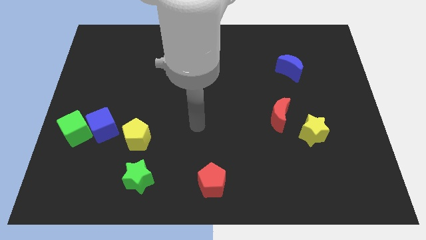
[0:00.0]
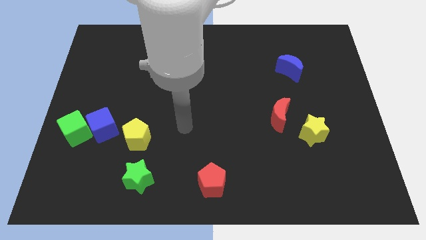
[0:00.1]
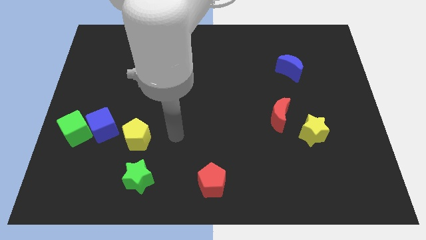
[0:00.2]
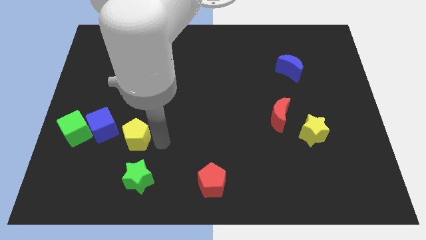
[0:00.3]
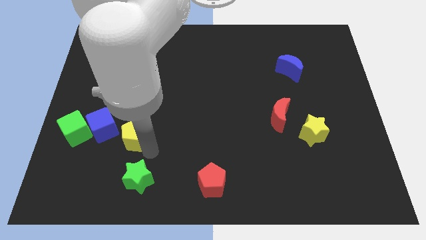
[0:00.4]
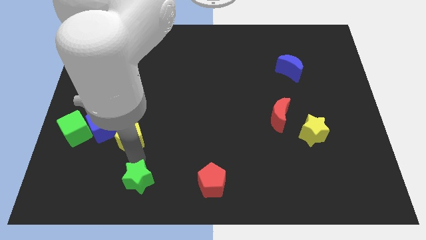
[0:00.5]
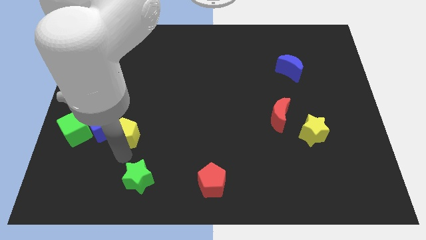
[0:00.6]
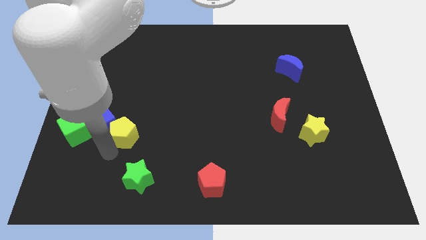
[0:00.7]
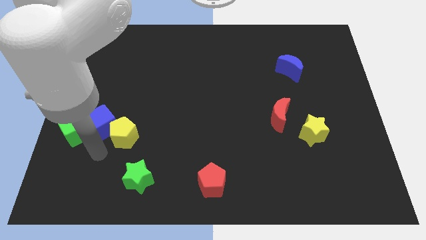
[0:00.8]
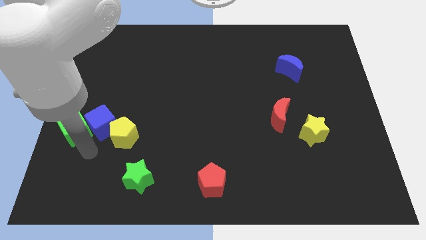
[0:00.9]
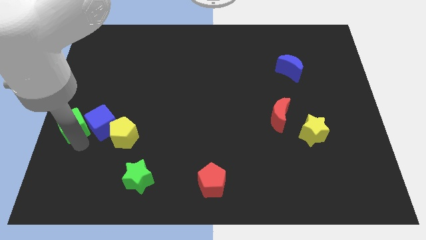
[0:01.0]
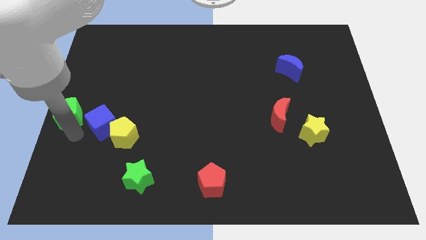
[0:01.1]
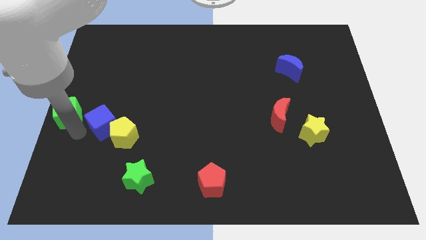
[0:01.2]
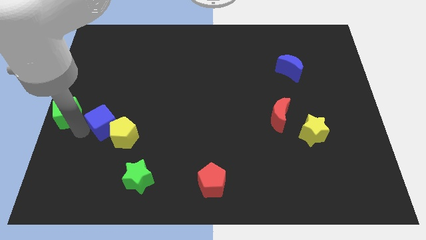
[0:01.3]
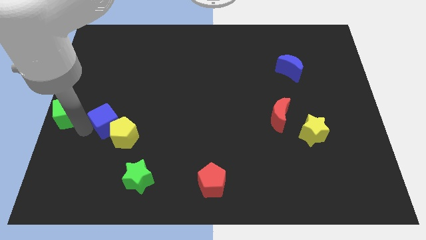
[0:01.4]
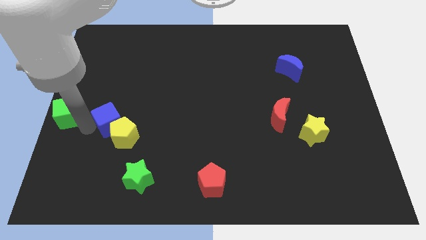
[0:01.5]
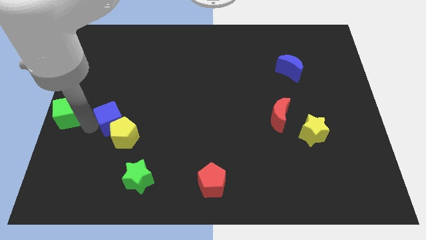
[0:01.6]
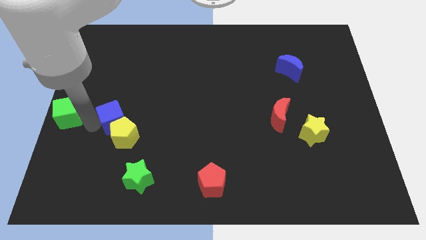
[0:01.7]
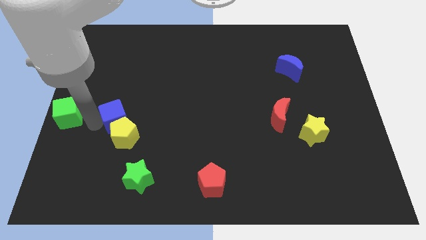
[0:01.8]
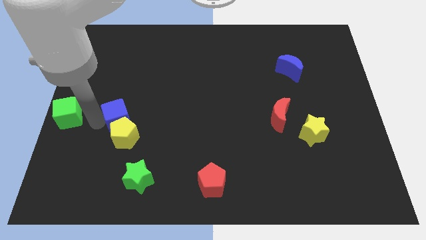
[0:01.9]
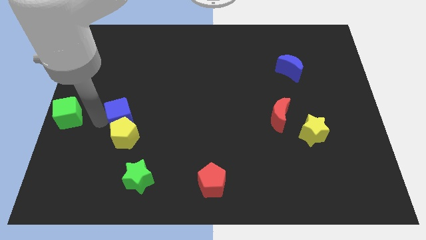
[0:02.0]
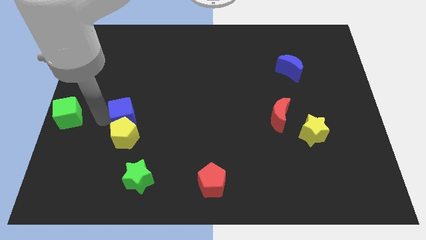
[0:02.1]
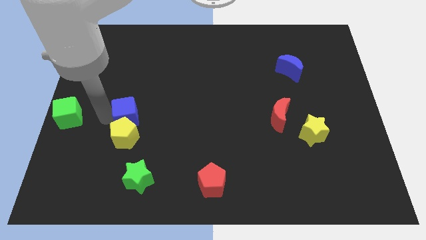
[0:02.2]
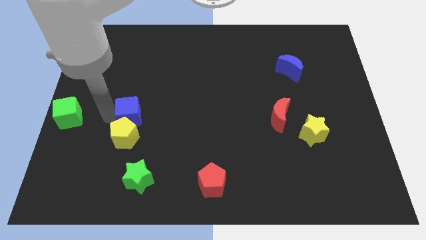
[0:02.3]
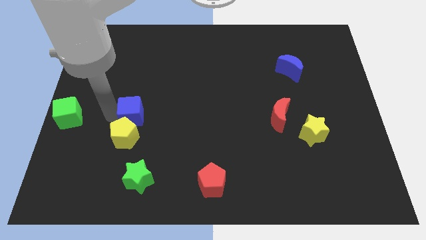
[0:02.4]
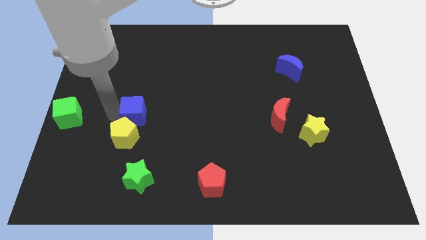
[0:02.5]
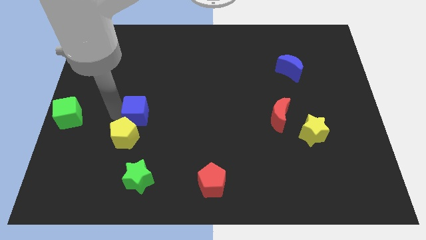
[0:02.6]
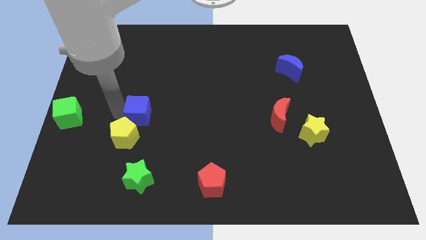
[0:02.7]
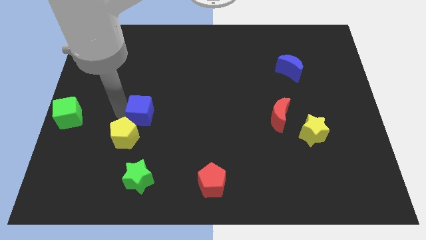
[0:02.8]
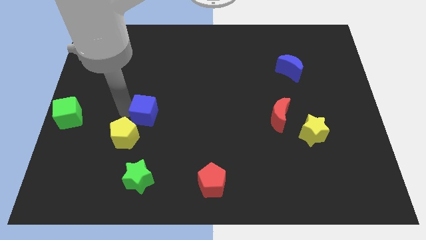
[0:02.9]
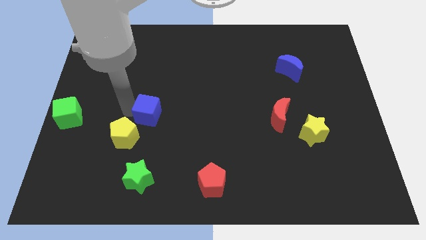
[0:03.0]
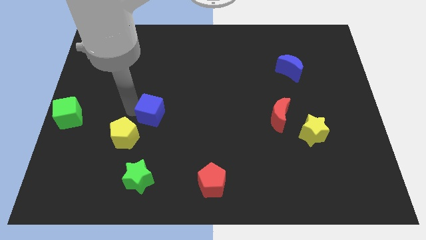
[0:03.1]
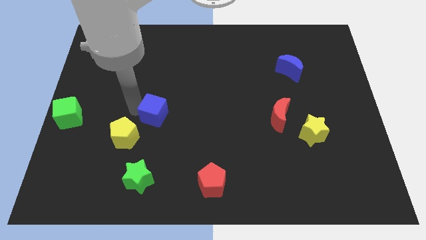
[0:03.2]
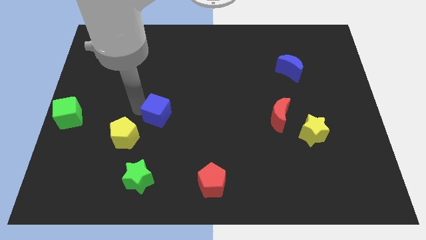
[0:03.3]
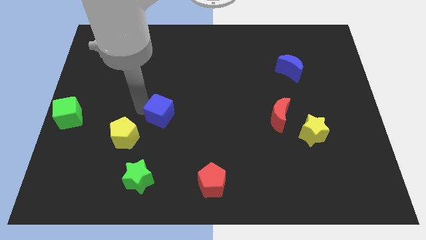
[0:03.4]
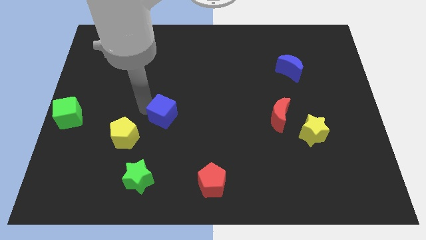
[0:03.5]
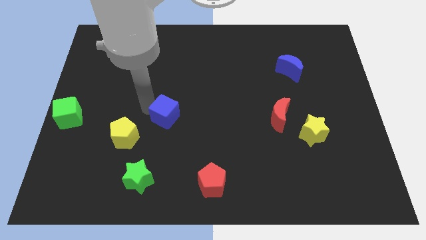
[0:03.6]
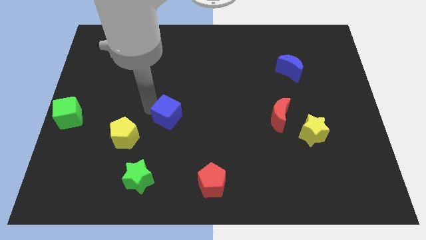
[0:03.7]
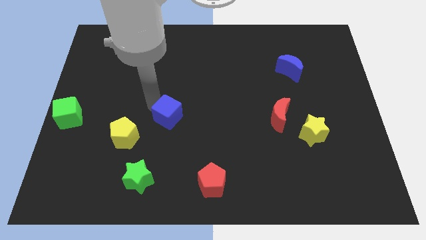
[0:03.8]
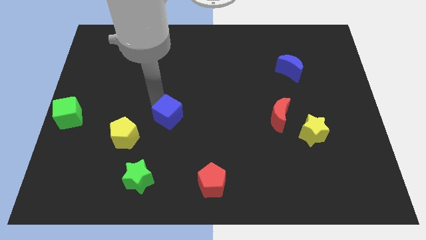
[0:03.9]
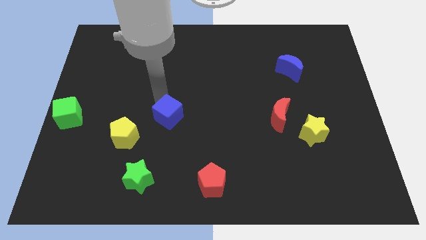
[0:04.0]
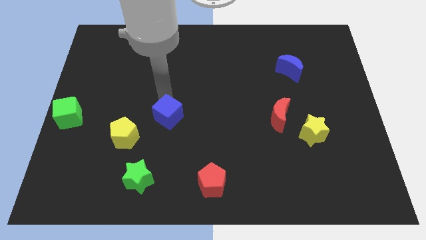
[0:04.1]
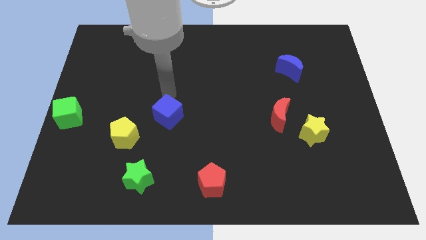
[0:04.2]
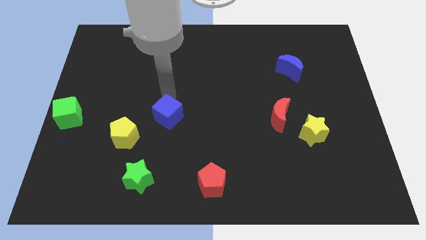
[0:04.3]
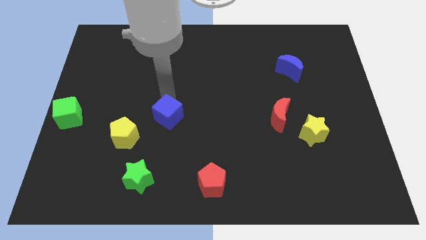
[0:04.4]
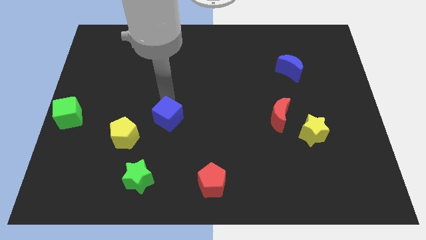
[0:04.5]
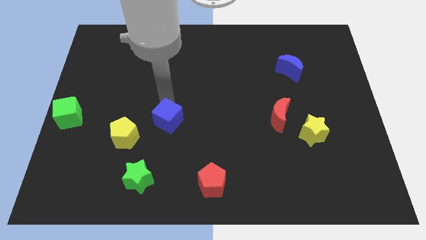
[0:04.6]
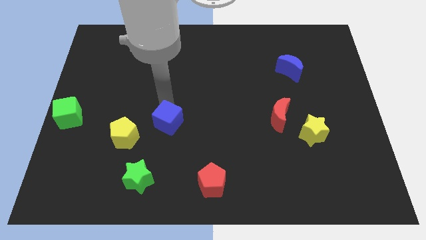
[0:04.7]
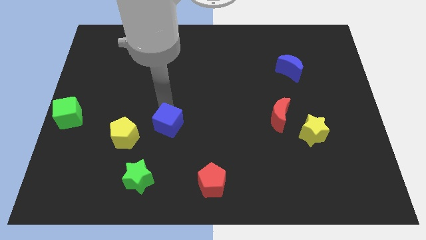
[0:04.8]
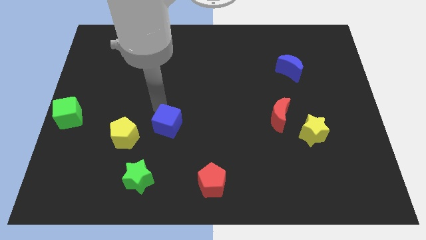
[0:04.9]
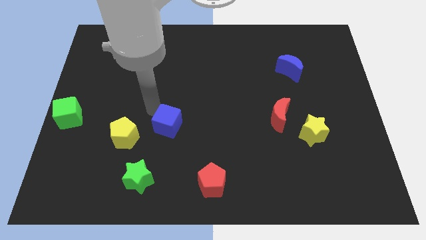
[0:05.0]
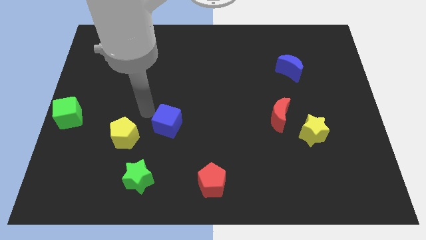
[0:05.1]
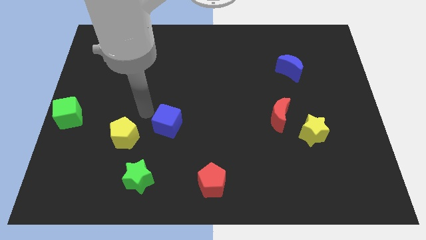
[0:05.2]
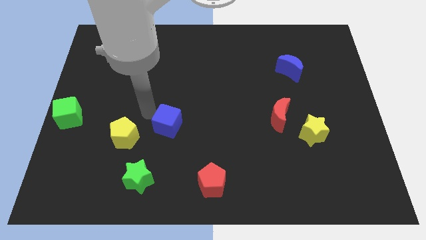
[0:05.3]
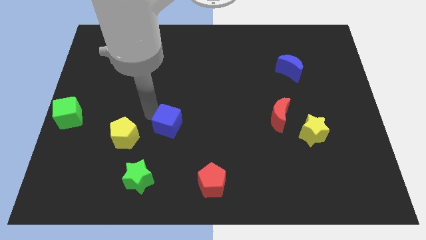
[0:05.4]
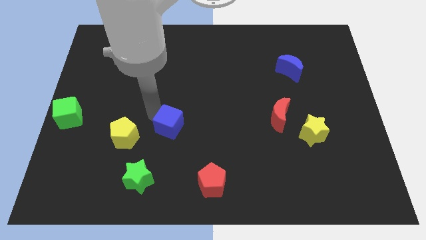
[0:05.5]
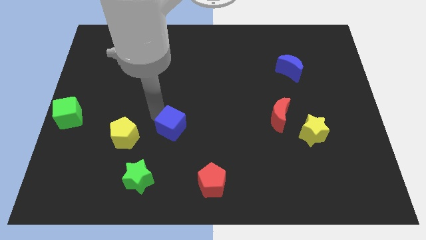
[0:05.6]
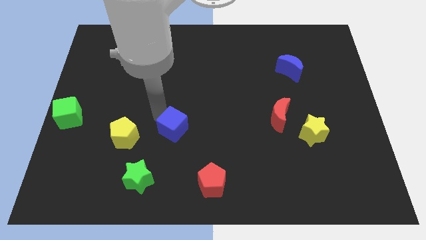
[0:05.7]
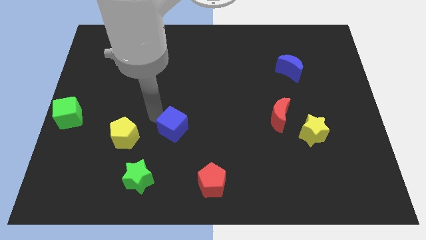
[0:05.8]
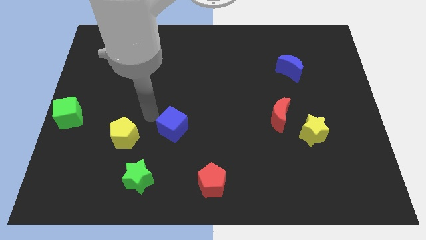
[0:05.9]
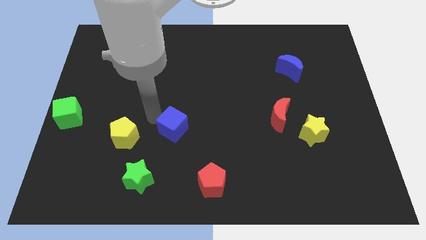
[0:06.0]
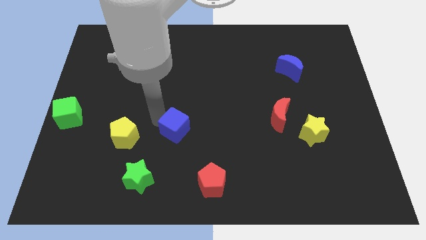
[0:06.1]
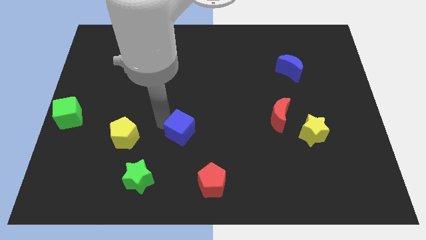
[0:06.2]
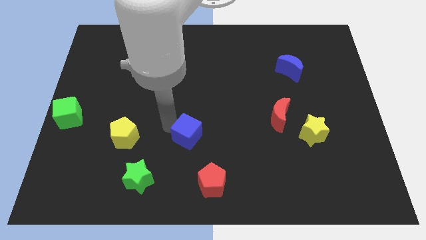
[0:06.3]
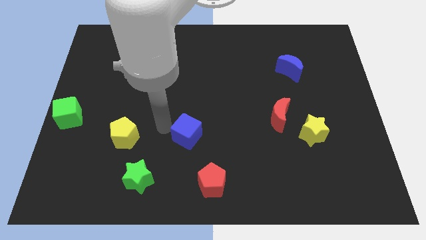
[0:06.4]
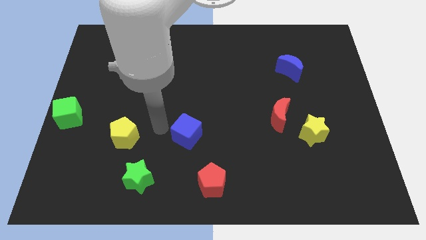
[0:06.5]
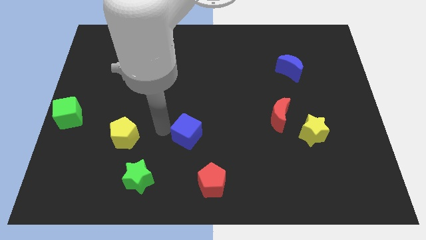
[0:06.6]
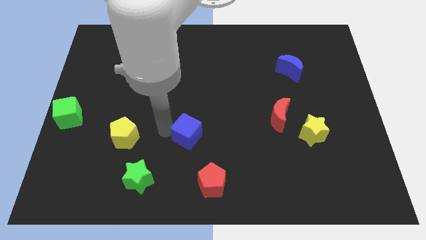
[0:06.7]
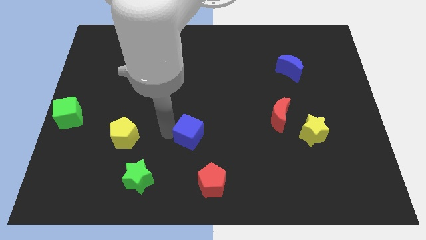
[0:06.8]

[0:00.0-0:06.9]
put the blue cube to the top side of the red pentagon
